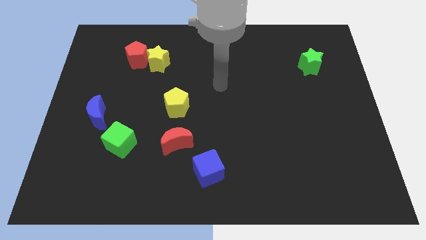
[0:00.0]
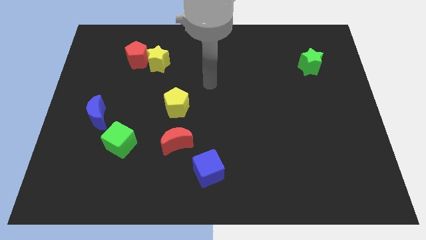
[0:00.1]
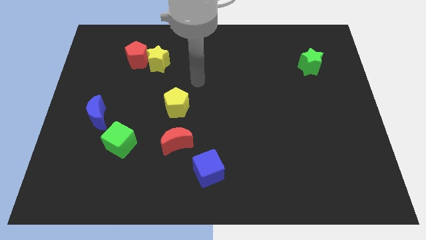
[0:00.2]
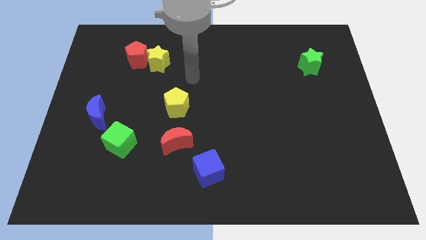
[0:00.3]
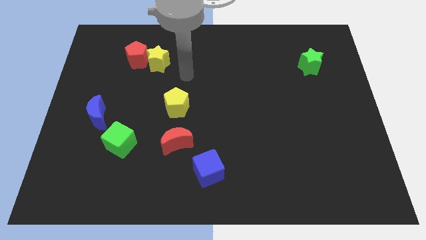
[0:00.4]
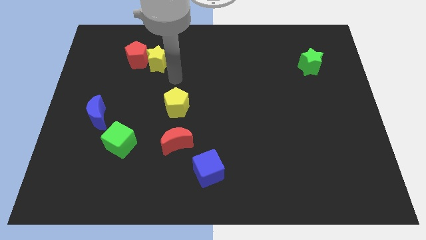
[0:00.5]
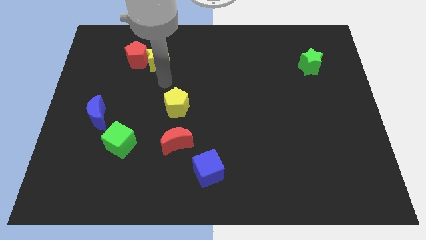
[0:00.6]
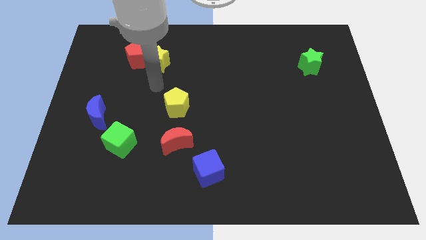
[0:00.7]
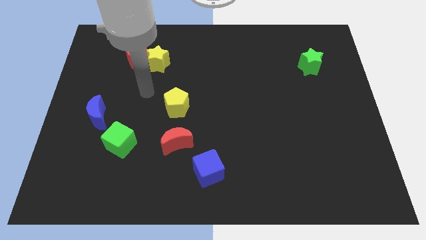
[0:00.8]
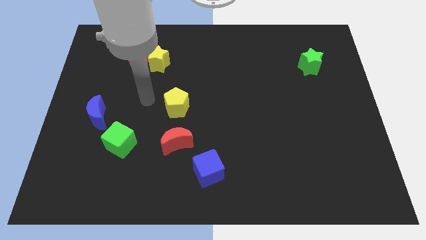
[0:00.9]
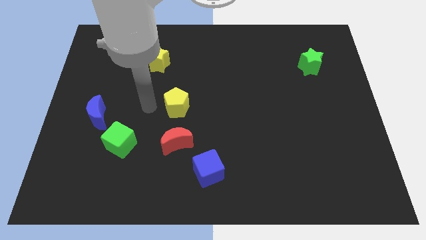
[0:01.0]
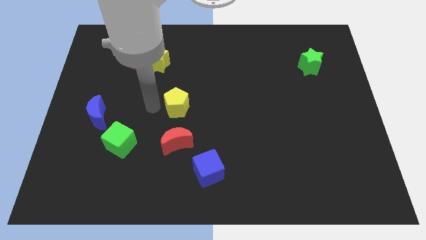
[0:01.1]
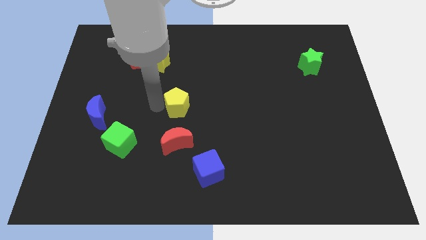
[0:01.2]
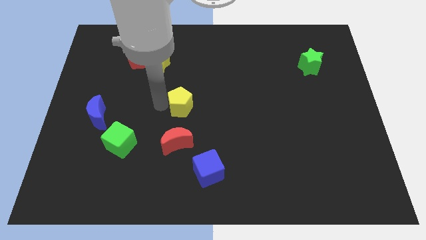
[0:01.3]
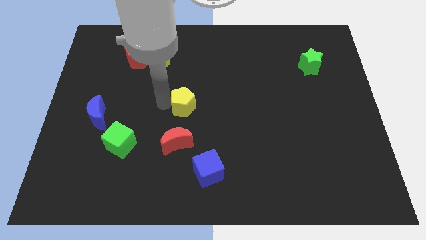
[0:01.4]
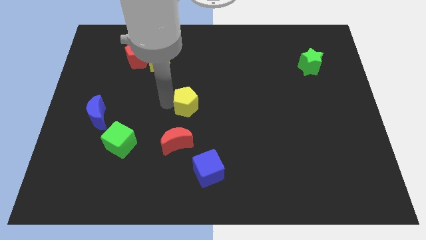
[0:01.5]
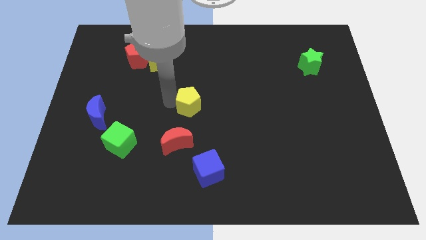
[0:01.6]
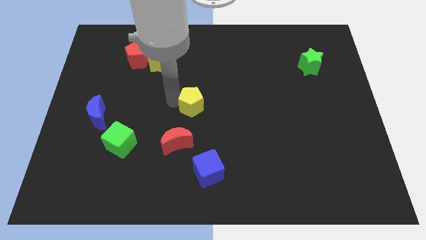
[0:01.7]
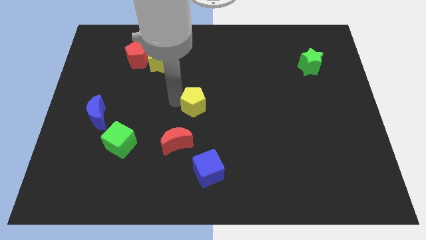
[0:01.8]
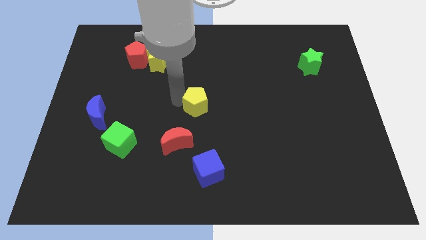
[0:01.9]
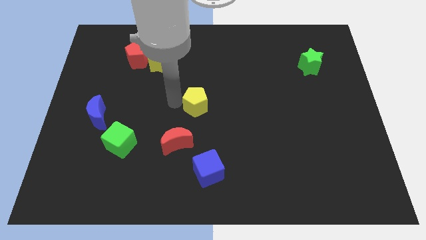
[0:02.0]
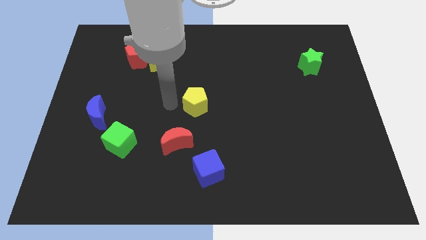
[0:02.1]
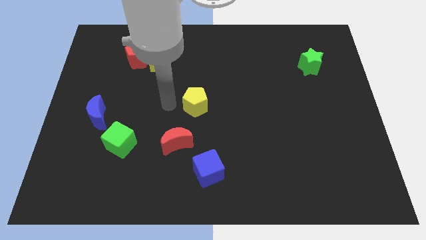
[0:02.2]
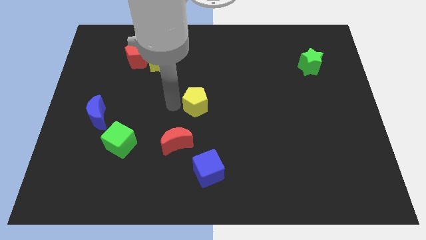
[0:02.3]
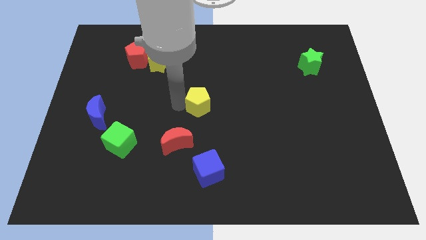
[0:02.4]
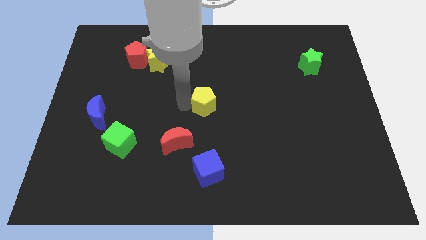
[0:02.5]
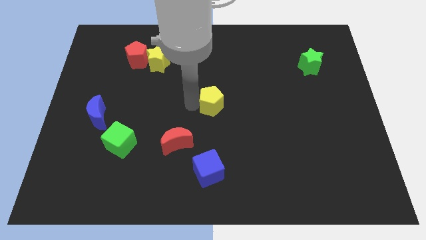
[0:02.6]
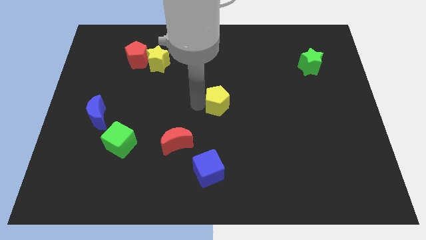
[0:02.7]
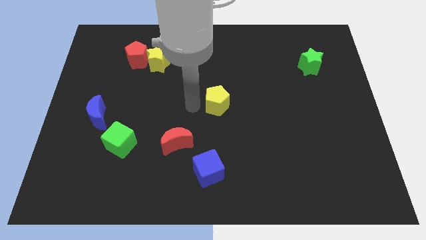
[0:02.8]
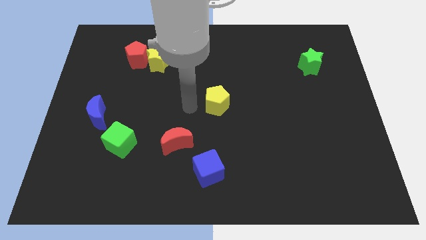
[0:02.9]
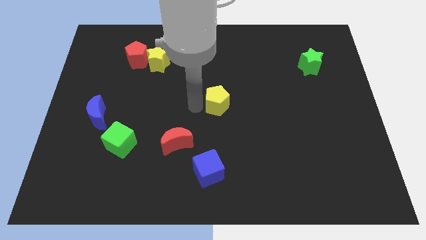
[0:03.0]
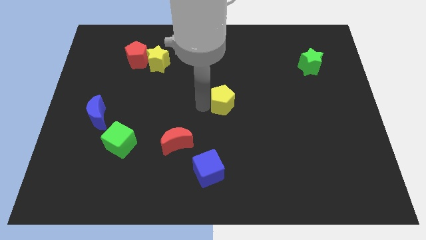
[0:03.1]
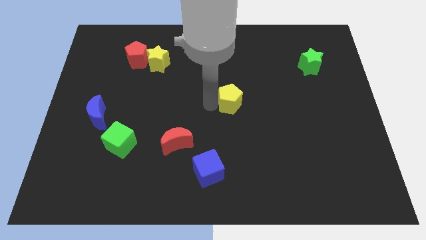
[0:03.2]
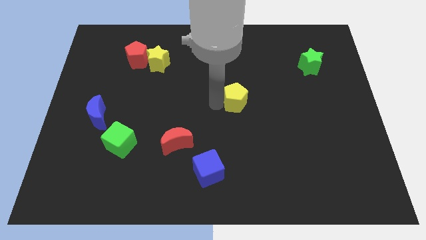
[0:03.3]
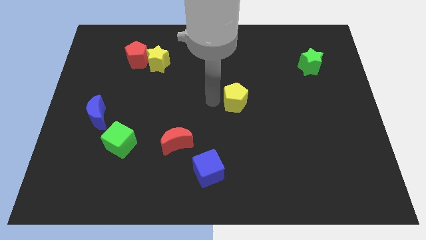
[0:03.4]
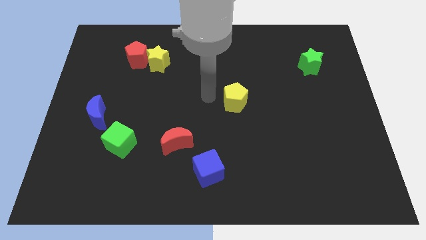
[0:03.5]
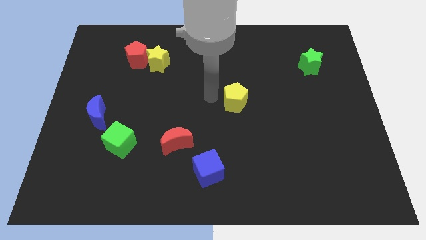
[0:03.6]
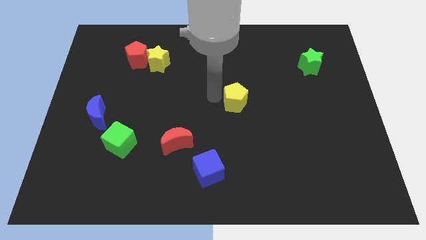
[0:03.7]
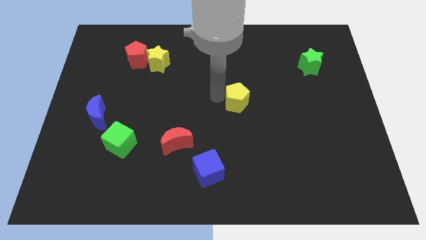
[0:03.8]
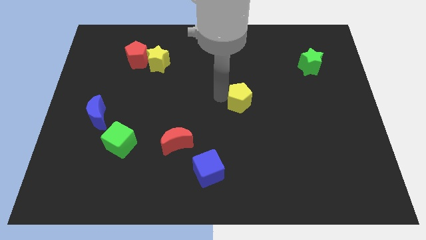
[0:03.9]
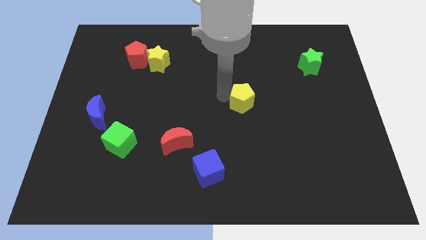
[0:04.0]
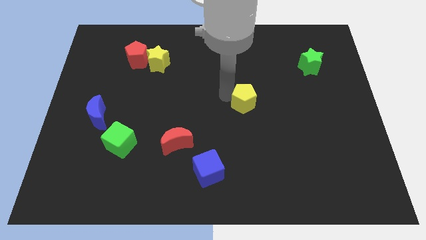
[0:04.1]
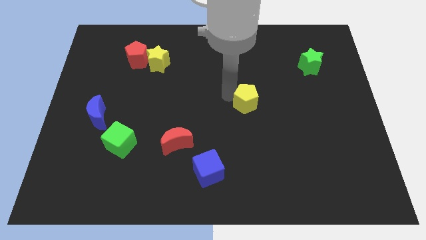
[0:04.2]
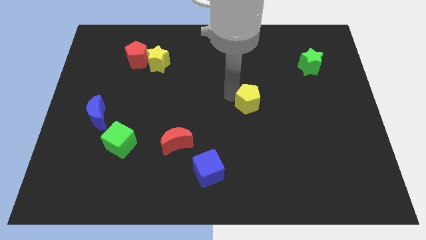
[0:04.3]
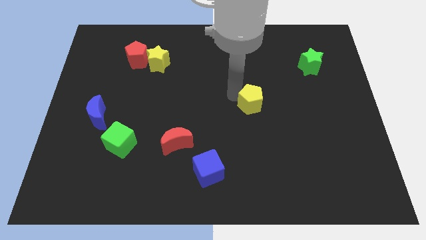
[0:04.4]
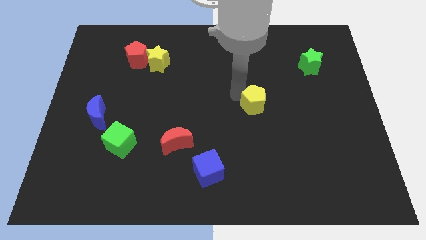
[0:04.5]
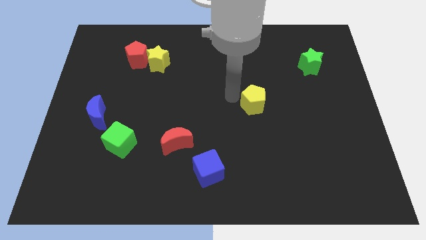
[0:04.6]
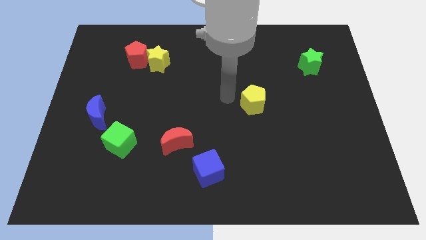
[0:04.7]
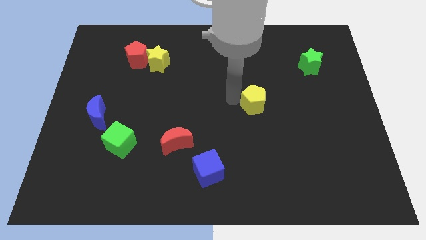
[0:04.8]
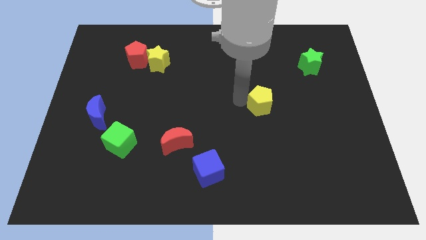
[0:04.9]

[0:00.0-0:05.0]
push the yellow pentagon right

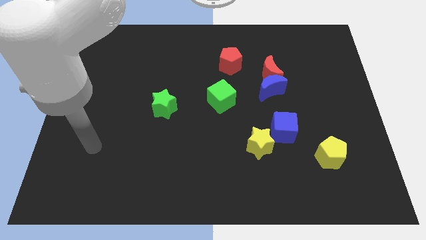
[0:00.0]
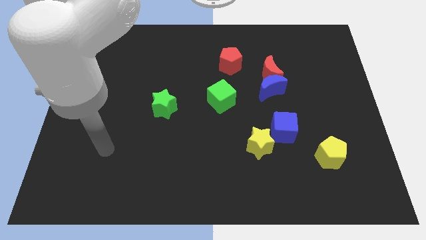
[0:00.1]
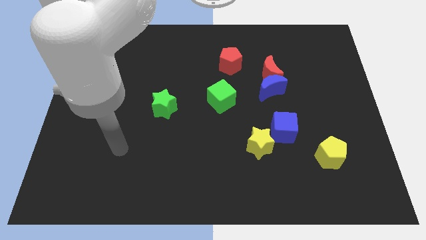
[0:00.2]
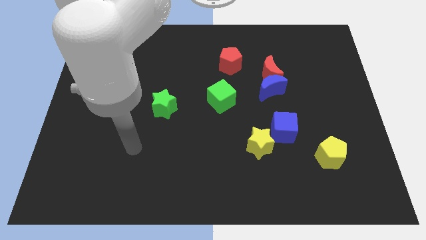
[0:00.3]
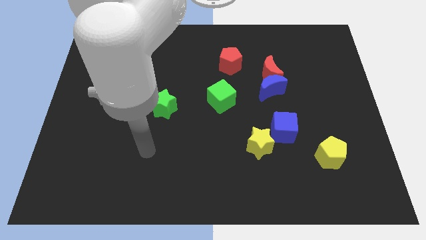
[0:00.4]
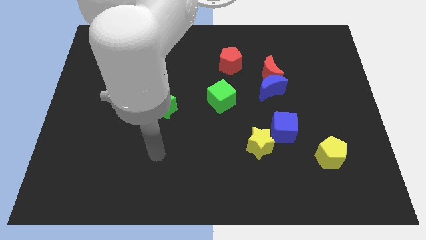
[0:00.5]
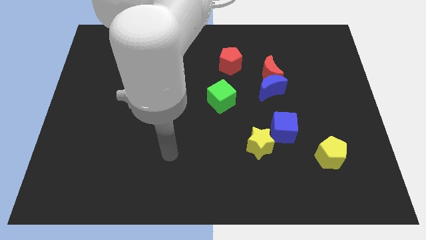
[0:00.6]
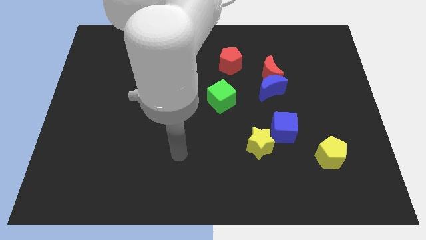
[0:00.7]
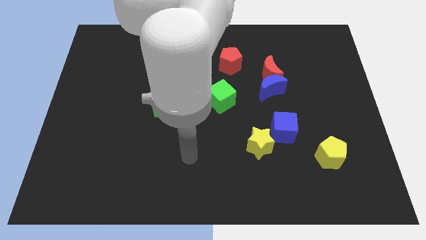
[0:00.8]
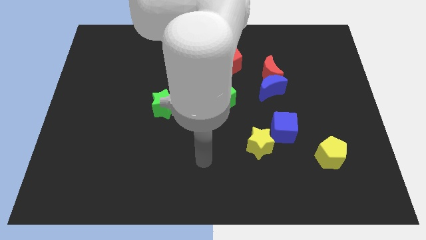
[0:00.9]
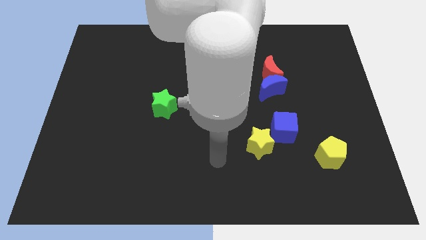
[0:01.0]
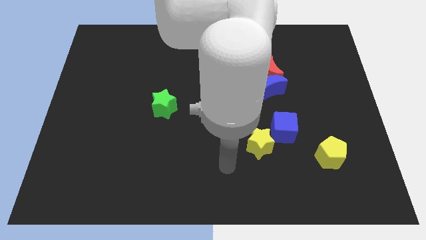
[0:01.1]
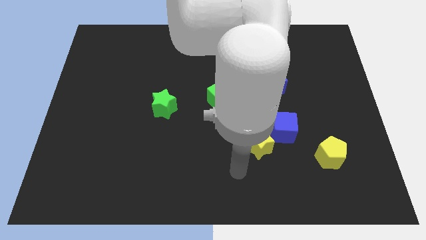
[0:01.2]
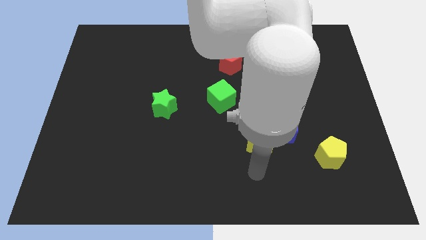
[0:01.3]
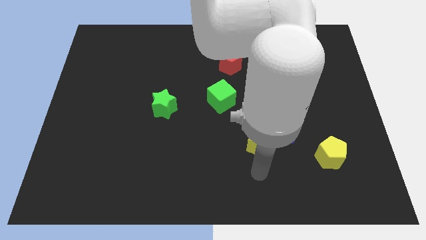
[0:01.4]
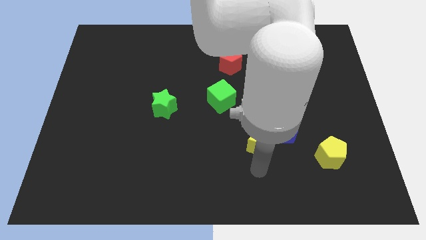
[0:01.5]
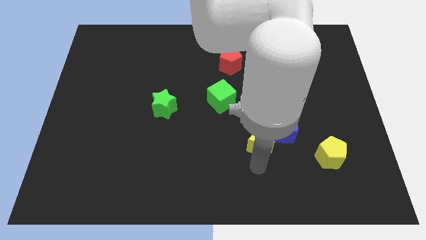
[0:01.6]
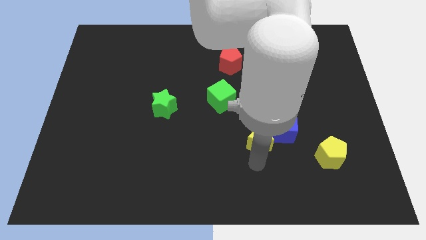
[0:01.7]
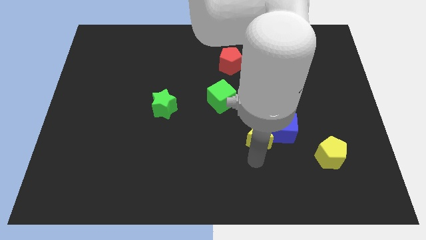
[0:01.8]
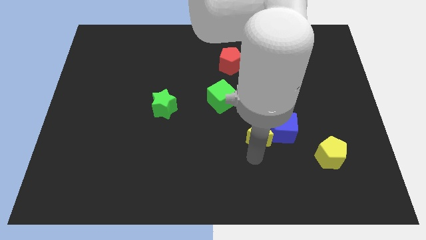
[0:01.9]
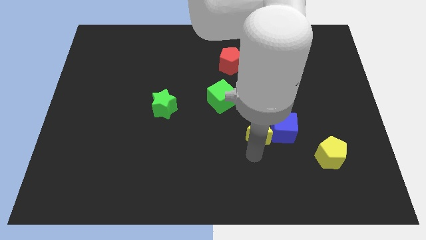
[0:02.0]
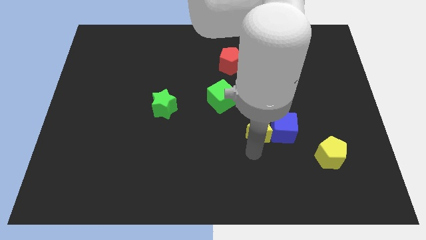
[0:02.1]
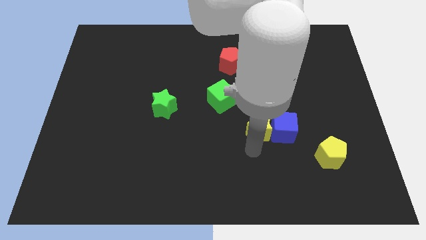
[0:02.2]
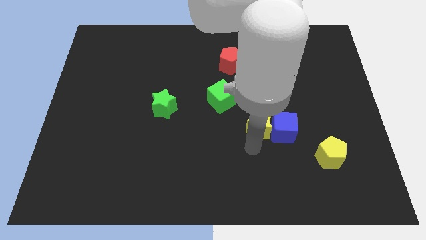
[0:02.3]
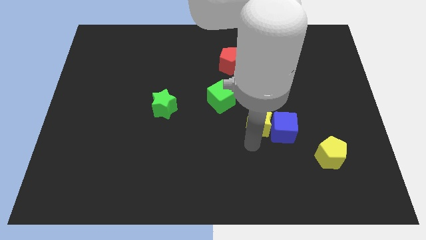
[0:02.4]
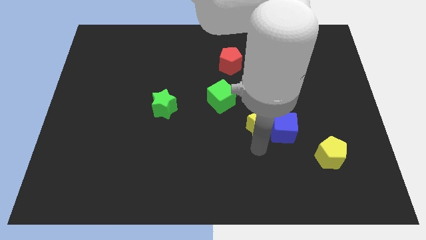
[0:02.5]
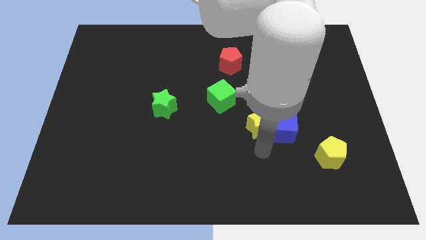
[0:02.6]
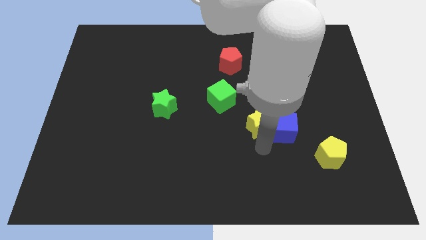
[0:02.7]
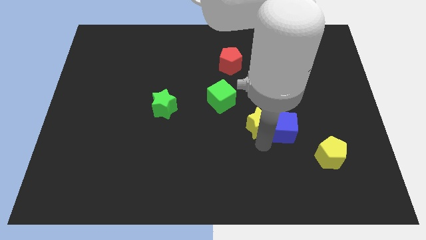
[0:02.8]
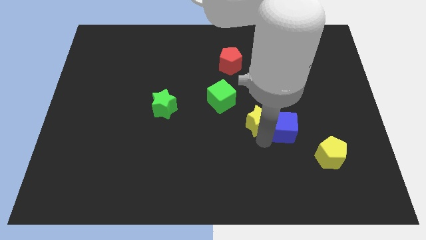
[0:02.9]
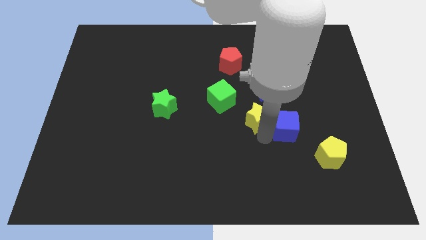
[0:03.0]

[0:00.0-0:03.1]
move the yellow star upwards somewhat
